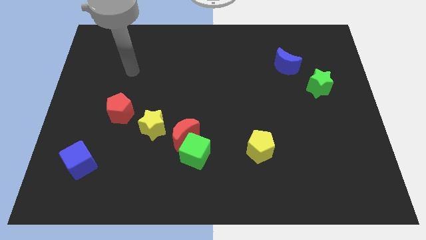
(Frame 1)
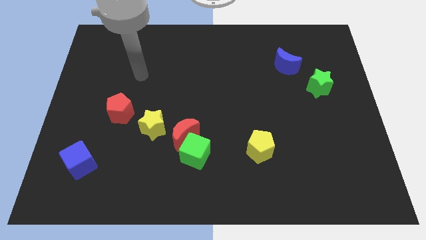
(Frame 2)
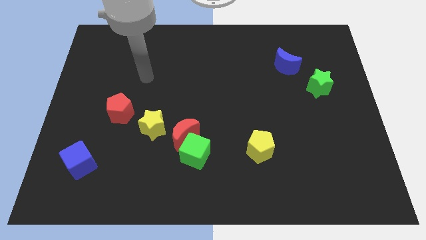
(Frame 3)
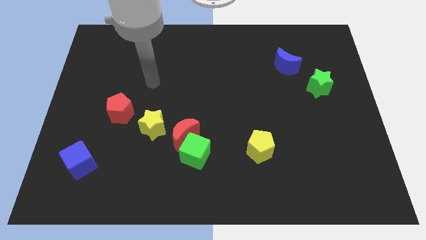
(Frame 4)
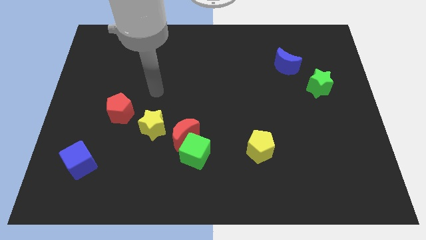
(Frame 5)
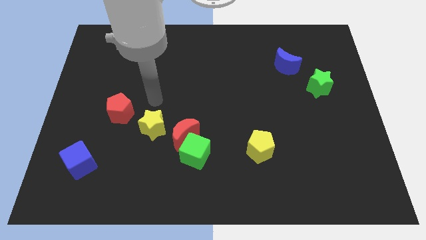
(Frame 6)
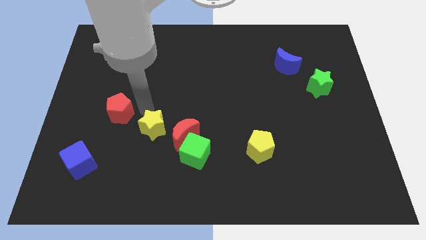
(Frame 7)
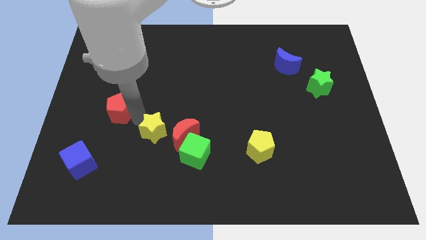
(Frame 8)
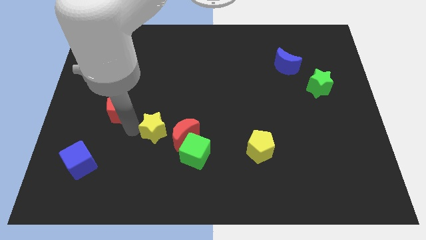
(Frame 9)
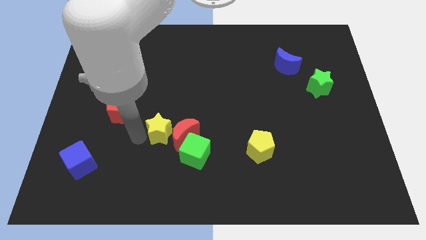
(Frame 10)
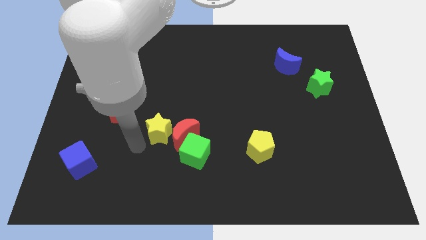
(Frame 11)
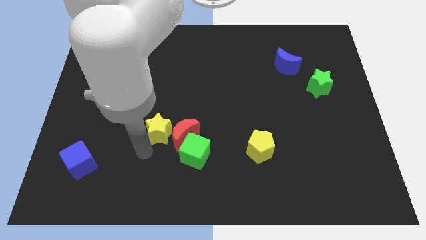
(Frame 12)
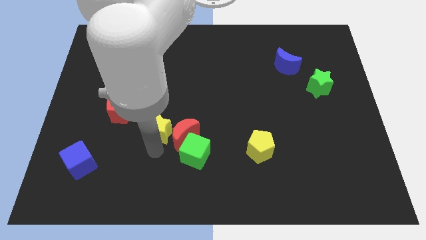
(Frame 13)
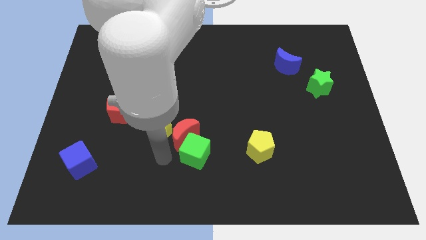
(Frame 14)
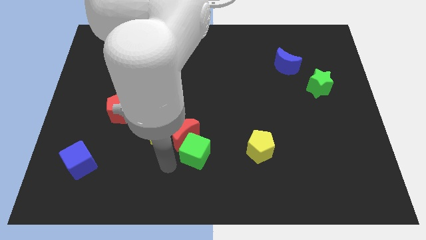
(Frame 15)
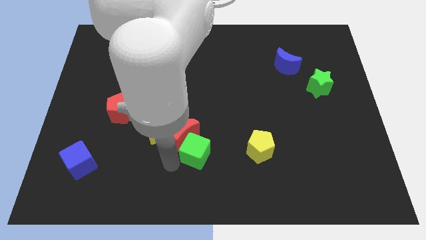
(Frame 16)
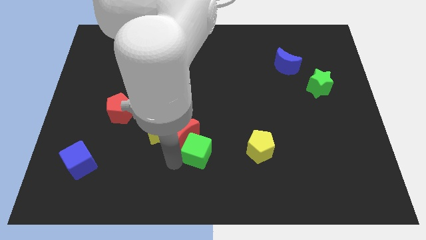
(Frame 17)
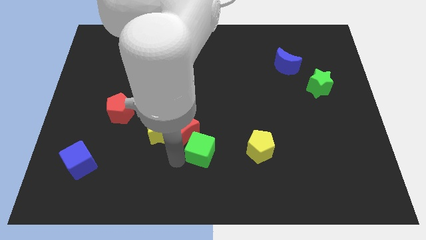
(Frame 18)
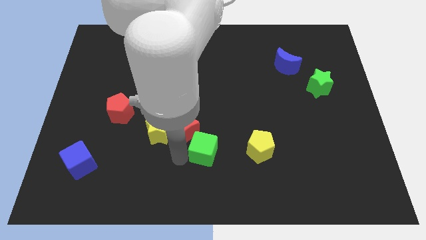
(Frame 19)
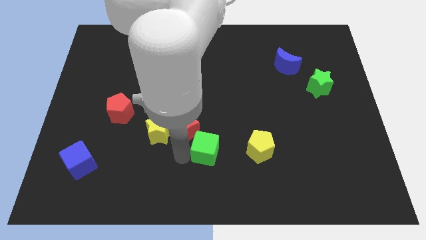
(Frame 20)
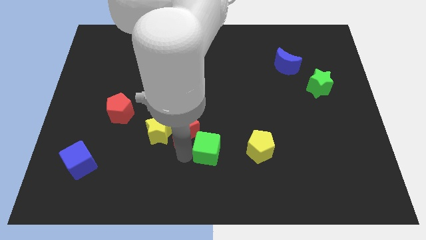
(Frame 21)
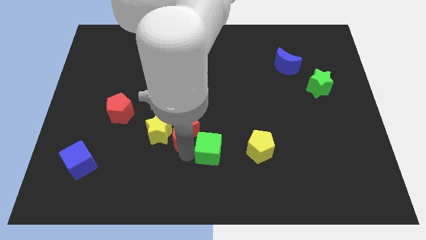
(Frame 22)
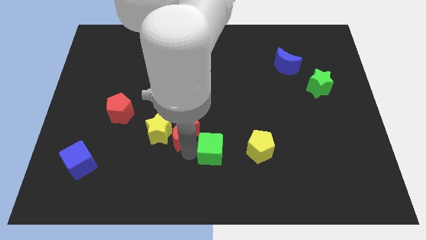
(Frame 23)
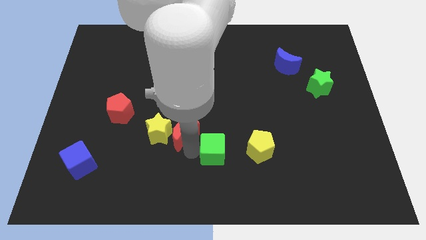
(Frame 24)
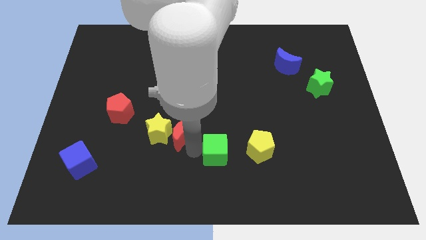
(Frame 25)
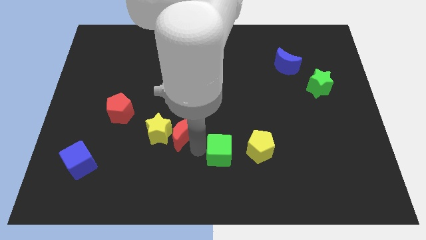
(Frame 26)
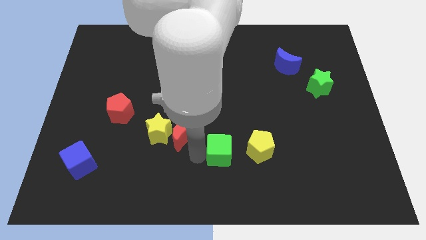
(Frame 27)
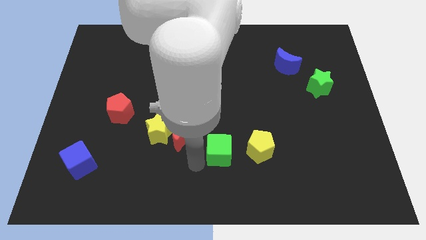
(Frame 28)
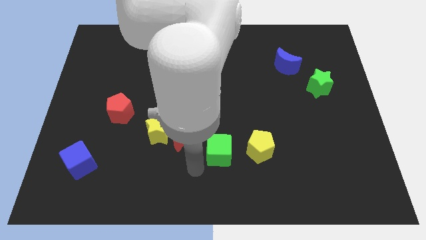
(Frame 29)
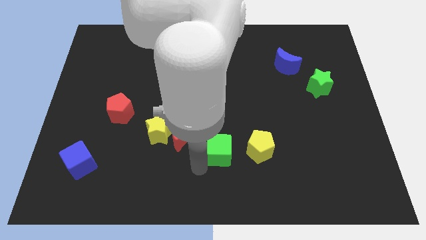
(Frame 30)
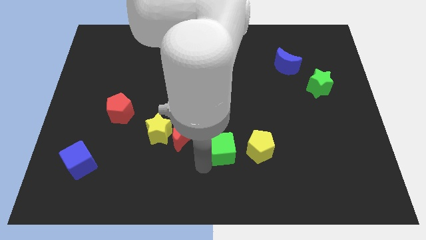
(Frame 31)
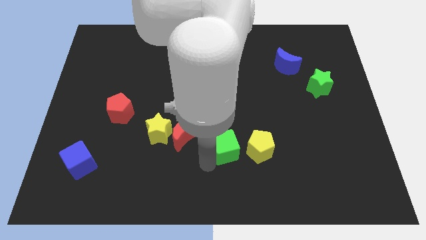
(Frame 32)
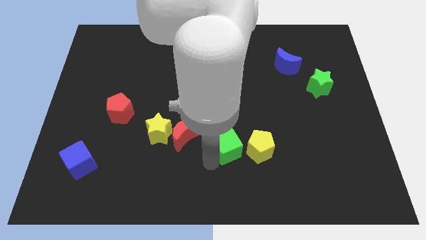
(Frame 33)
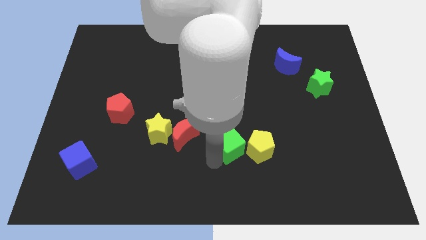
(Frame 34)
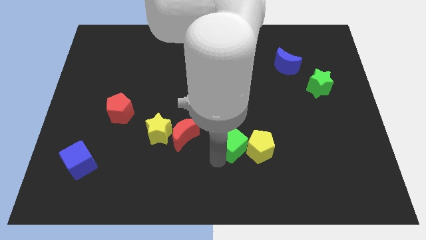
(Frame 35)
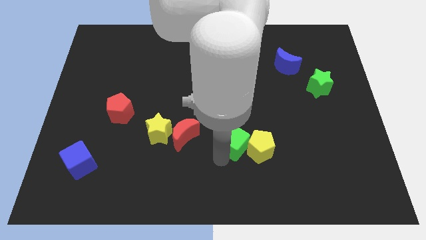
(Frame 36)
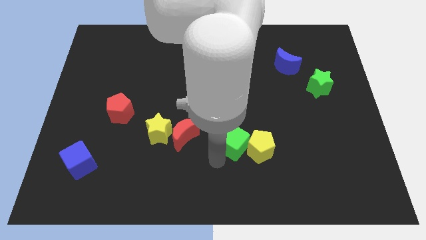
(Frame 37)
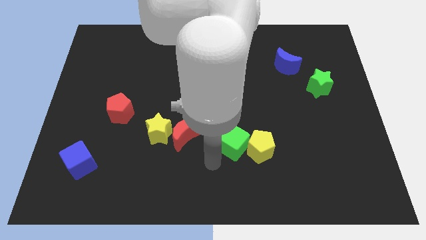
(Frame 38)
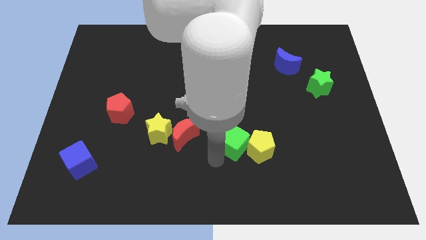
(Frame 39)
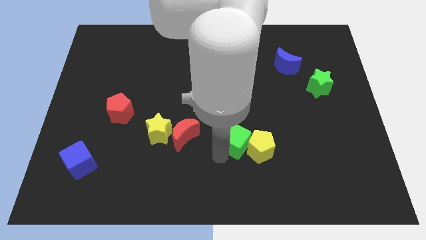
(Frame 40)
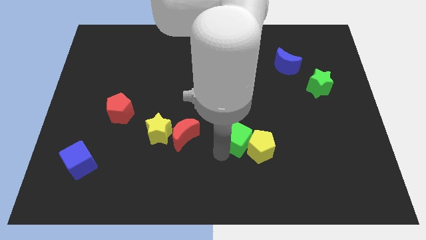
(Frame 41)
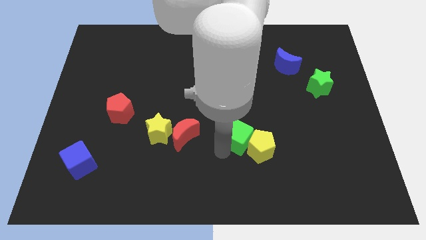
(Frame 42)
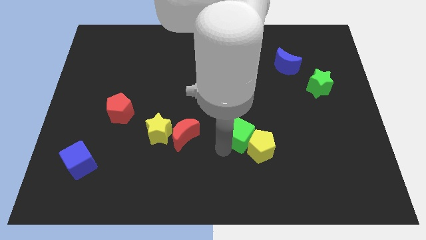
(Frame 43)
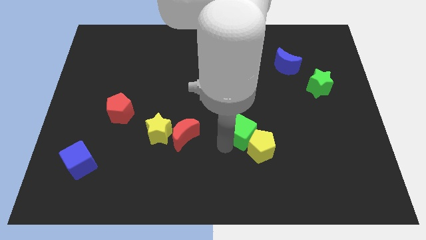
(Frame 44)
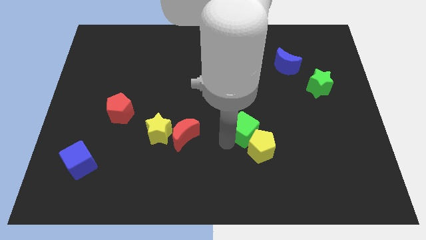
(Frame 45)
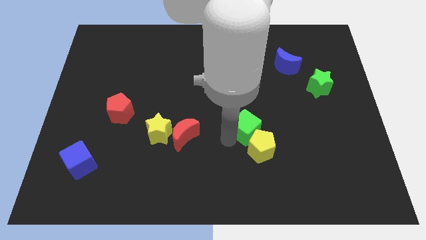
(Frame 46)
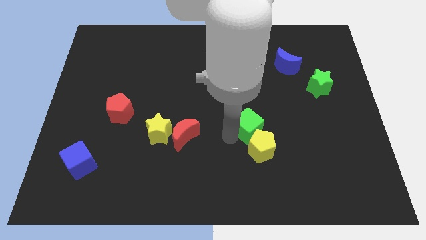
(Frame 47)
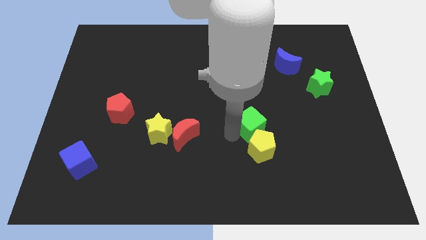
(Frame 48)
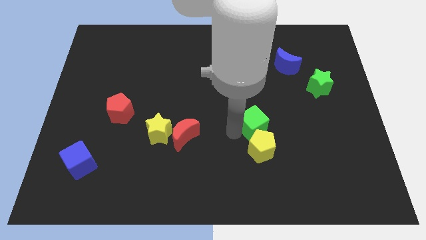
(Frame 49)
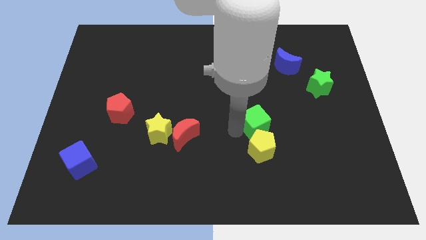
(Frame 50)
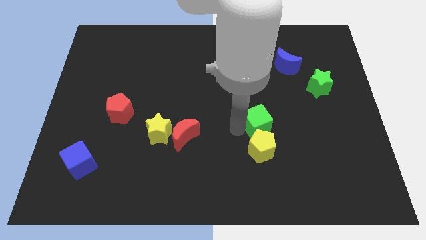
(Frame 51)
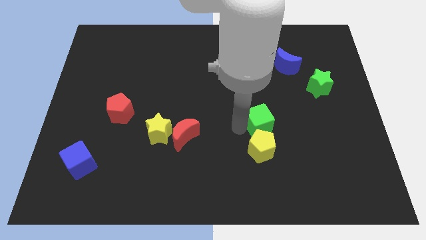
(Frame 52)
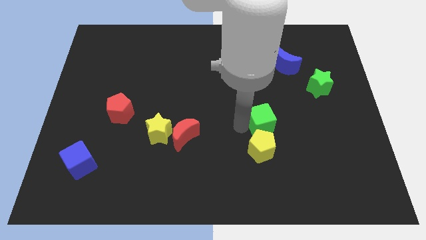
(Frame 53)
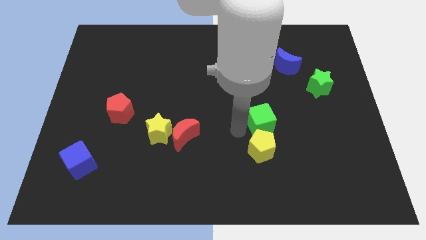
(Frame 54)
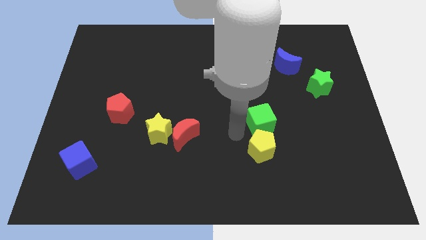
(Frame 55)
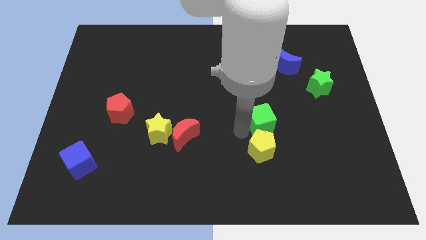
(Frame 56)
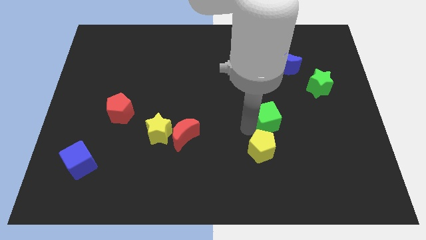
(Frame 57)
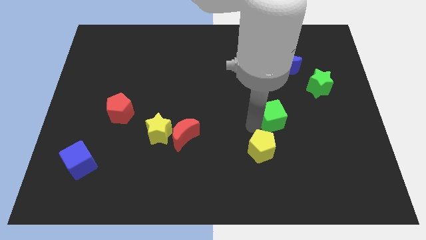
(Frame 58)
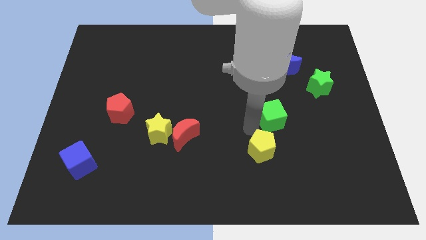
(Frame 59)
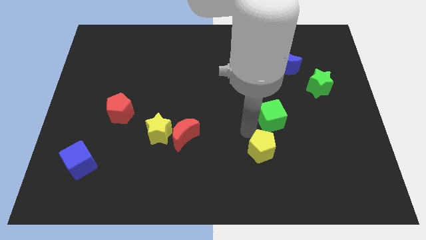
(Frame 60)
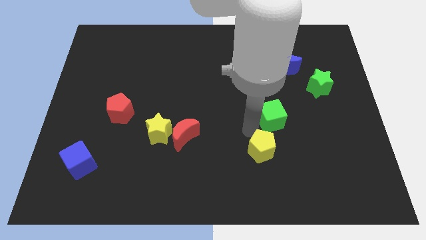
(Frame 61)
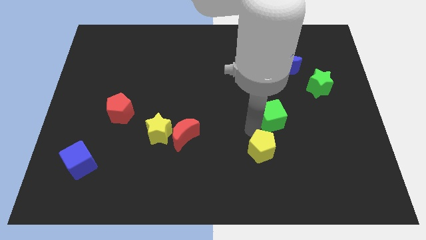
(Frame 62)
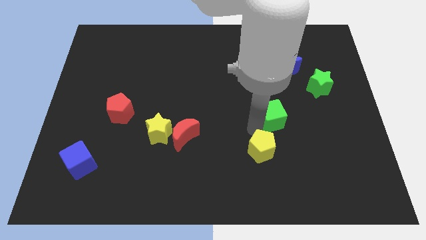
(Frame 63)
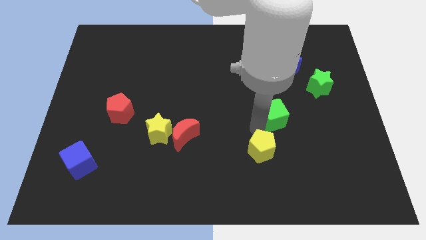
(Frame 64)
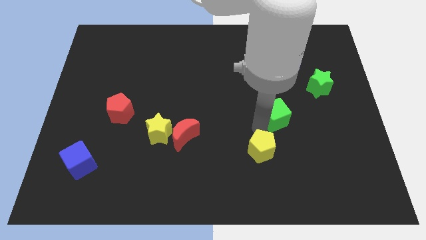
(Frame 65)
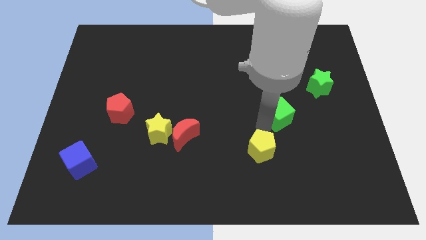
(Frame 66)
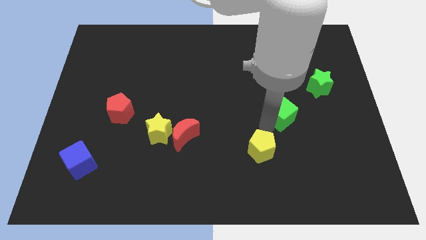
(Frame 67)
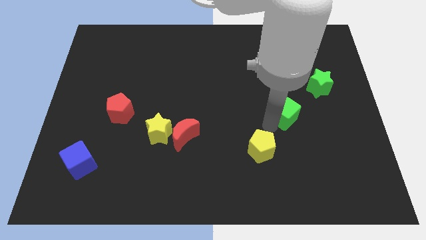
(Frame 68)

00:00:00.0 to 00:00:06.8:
slide the green cube diagonally down and to the left of the green star
